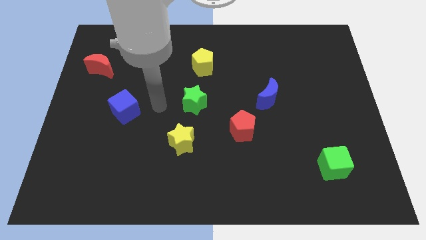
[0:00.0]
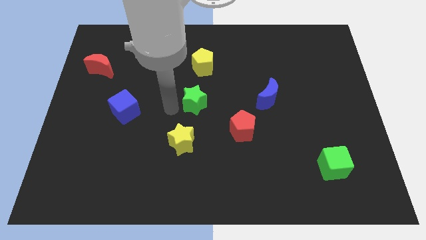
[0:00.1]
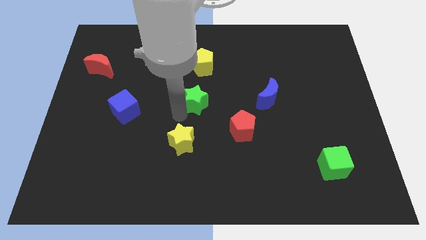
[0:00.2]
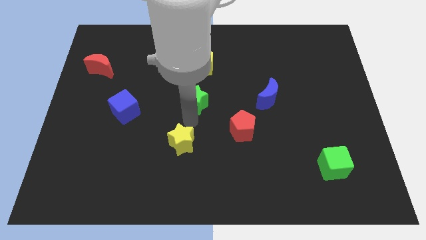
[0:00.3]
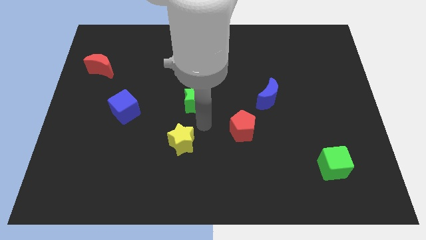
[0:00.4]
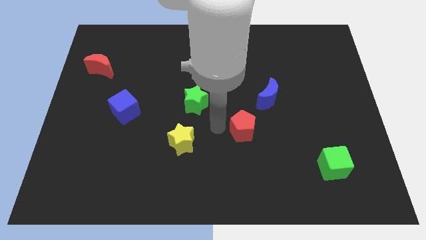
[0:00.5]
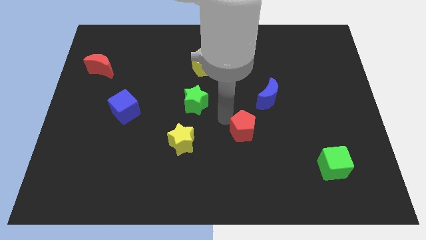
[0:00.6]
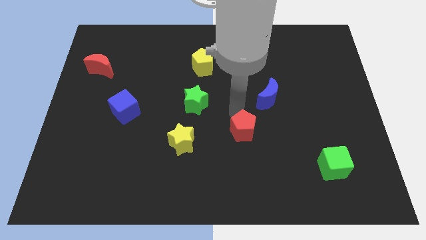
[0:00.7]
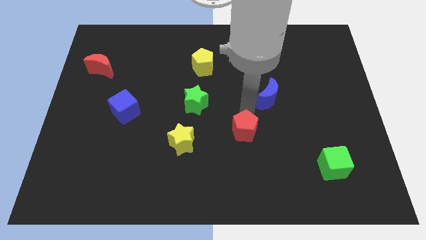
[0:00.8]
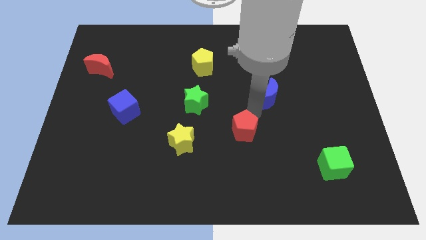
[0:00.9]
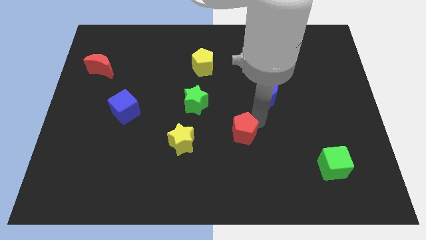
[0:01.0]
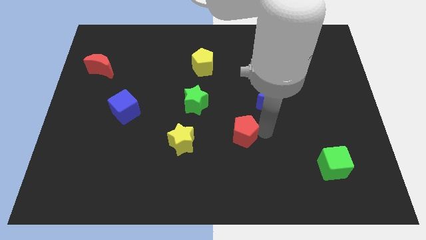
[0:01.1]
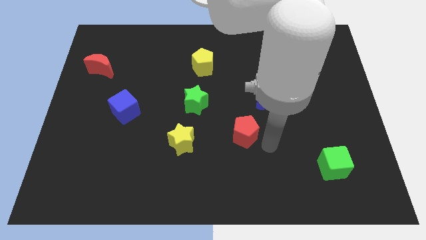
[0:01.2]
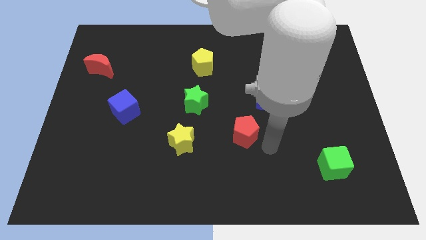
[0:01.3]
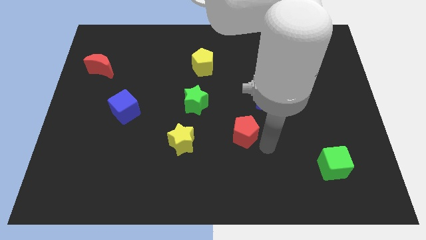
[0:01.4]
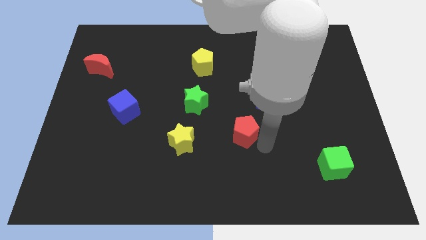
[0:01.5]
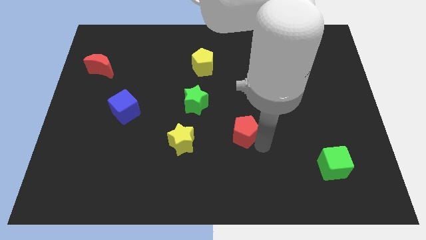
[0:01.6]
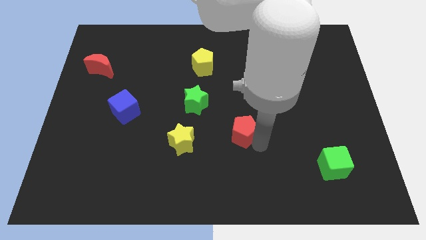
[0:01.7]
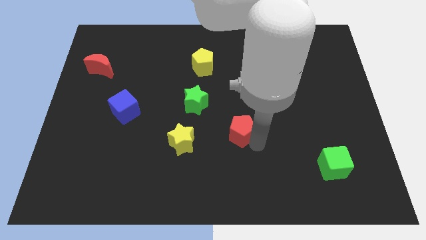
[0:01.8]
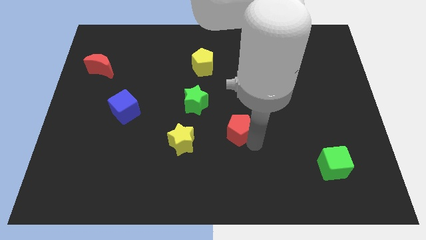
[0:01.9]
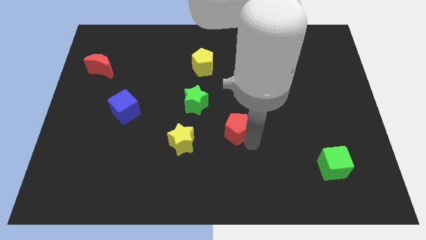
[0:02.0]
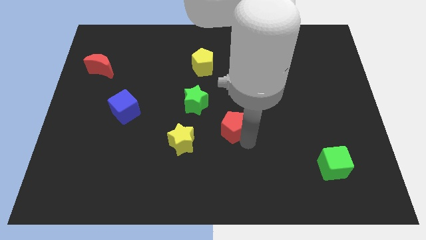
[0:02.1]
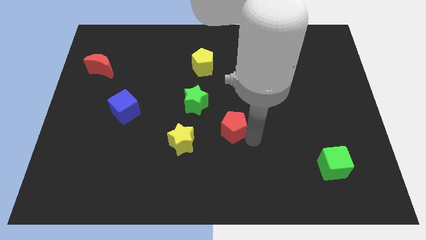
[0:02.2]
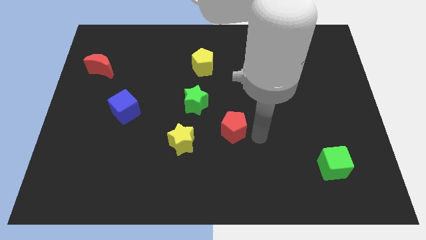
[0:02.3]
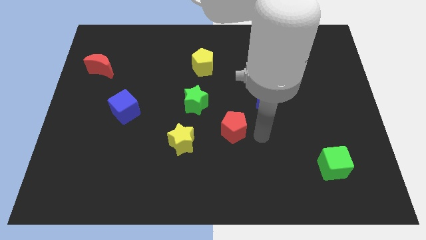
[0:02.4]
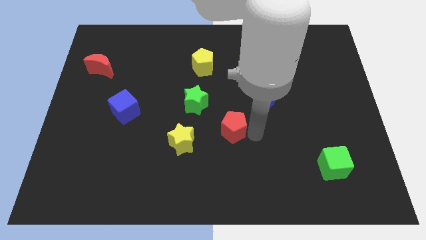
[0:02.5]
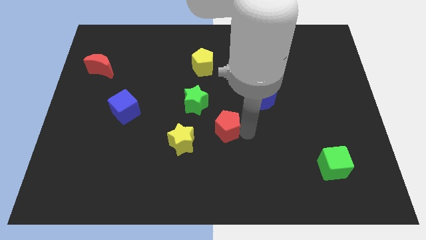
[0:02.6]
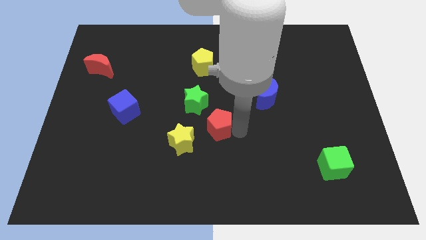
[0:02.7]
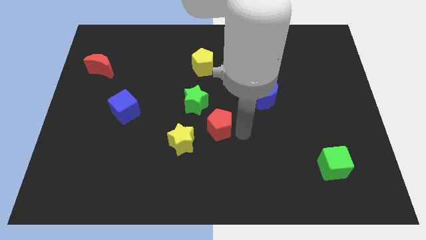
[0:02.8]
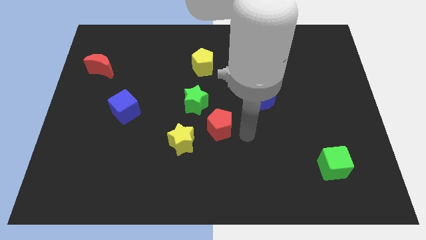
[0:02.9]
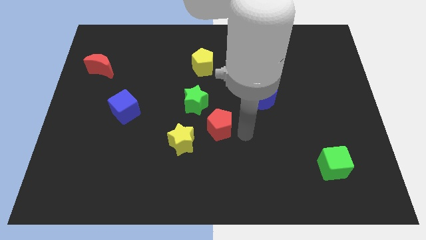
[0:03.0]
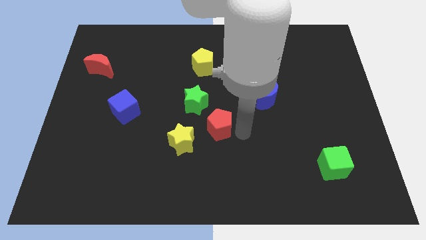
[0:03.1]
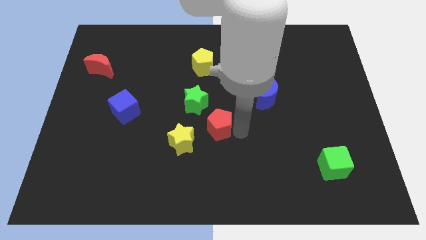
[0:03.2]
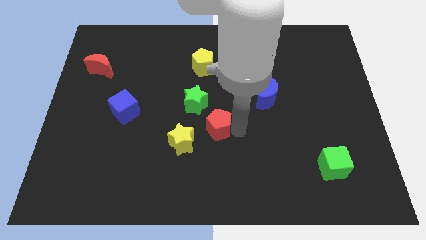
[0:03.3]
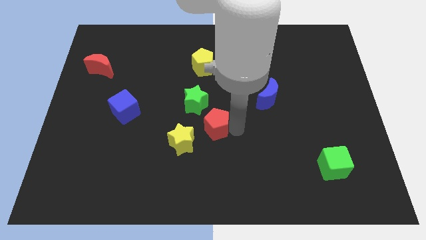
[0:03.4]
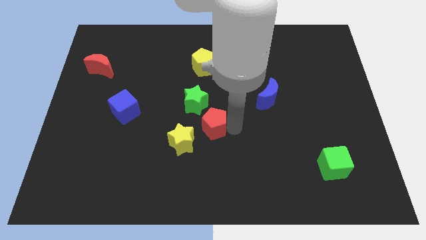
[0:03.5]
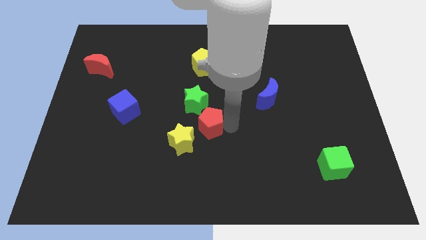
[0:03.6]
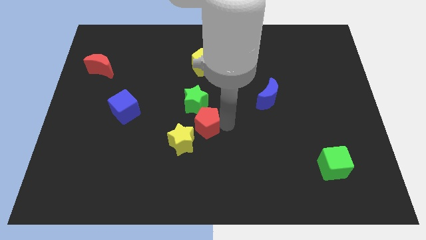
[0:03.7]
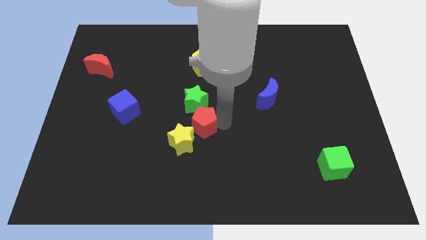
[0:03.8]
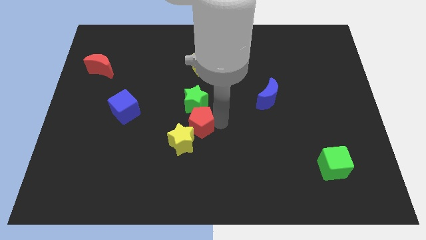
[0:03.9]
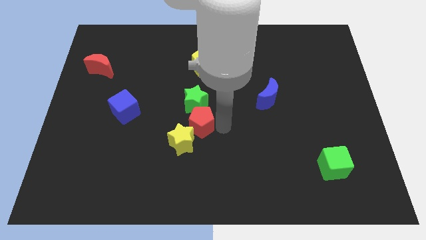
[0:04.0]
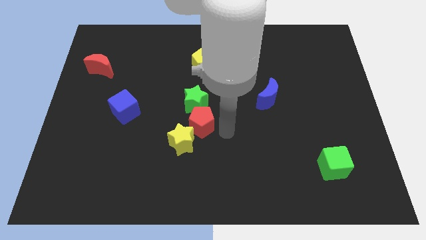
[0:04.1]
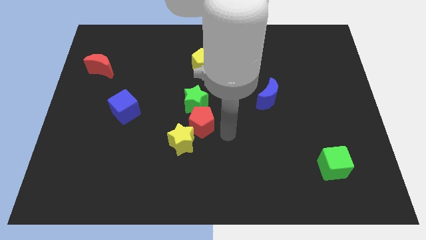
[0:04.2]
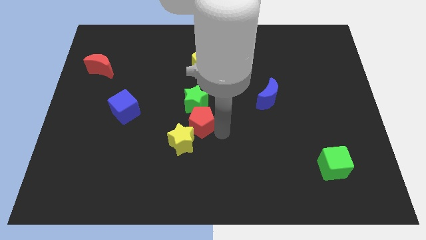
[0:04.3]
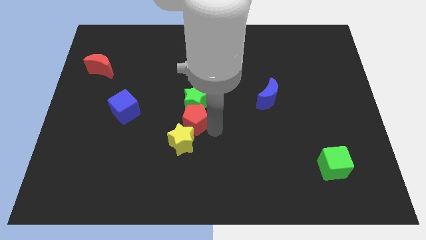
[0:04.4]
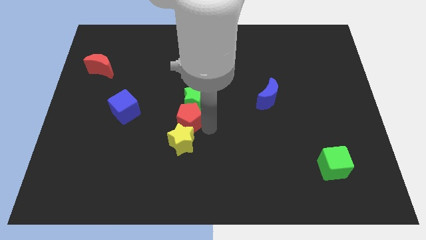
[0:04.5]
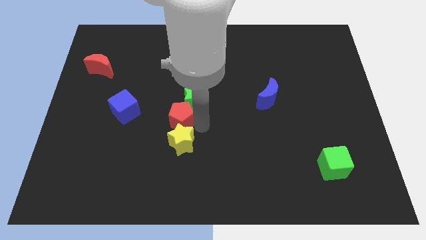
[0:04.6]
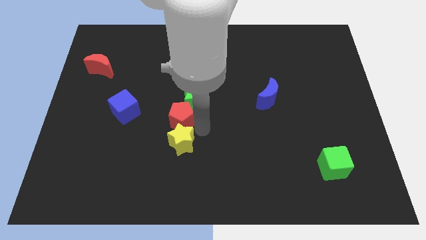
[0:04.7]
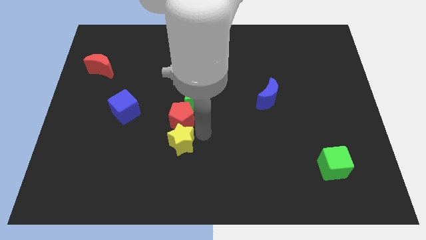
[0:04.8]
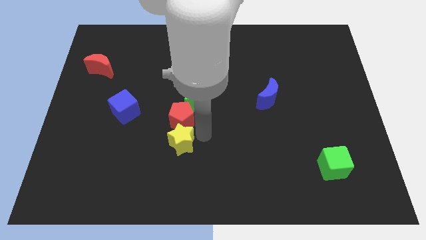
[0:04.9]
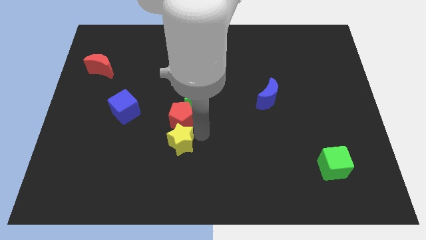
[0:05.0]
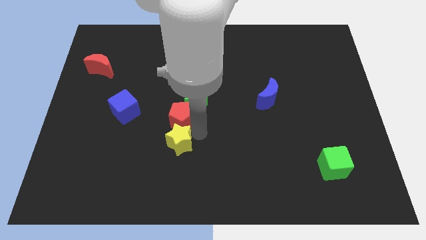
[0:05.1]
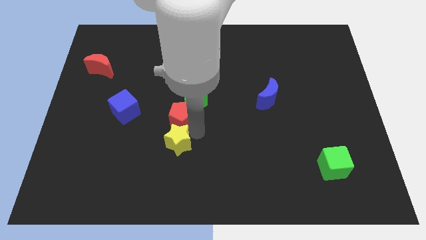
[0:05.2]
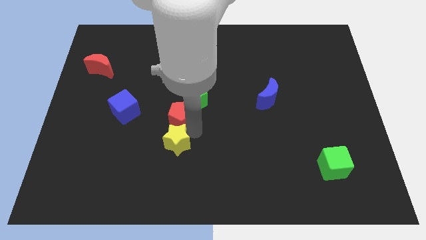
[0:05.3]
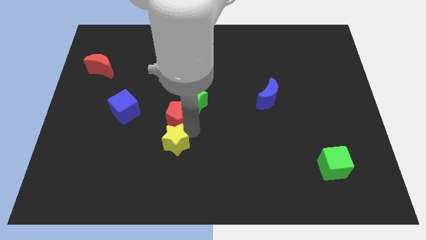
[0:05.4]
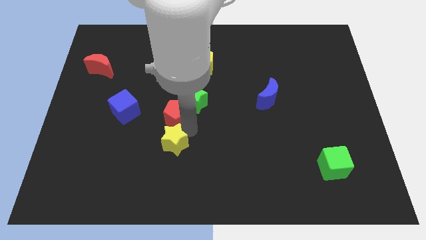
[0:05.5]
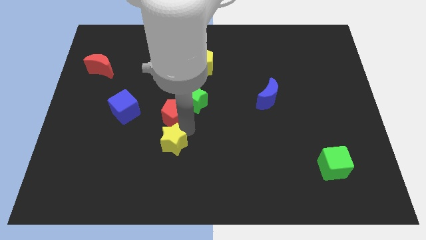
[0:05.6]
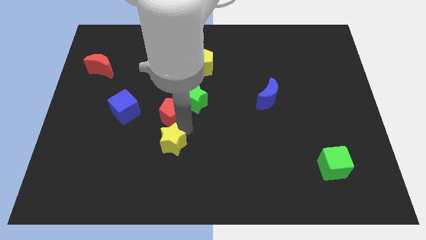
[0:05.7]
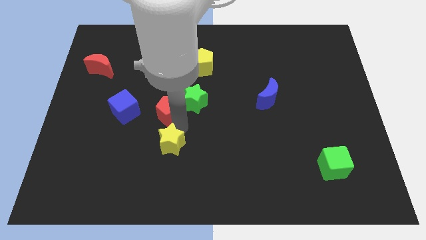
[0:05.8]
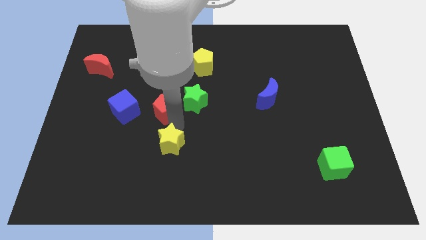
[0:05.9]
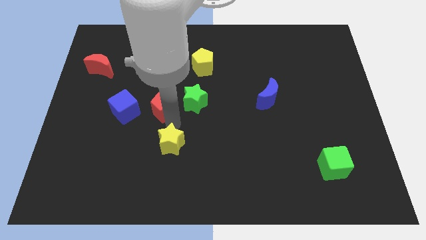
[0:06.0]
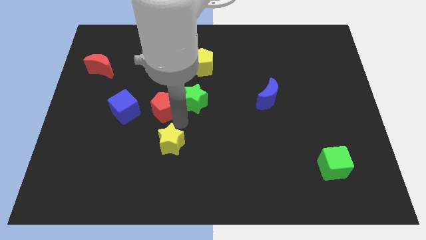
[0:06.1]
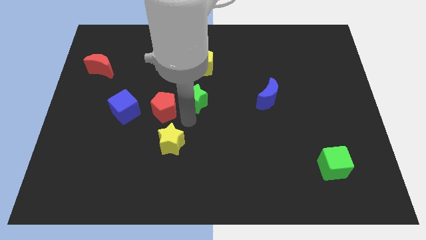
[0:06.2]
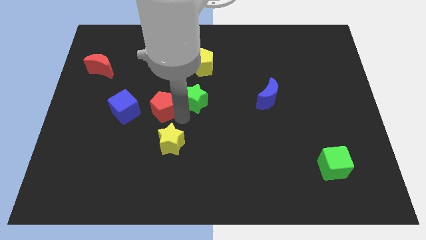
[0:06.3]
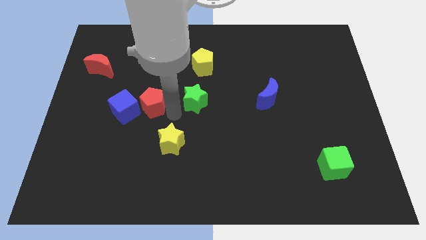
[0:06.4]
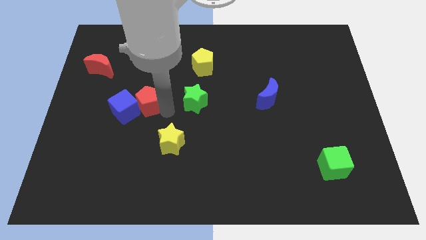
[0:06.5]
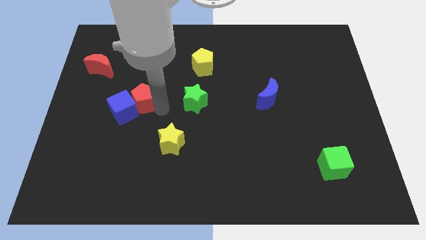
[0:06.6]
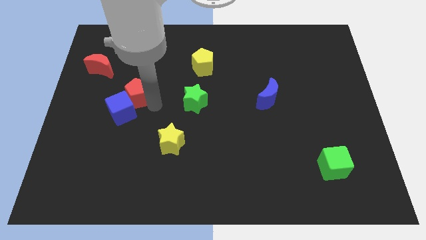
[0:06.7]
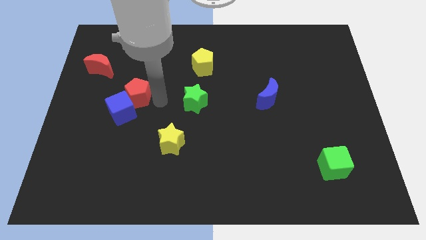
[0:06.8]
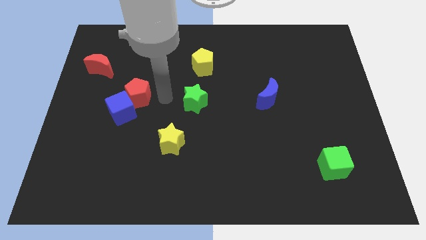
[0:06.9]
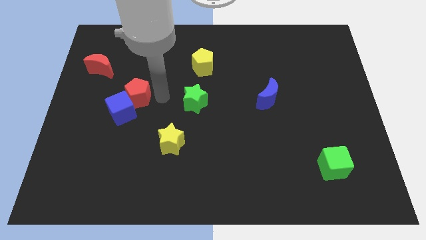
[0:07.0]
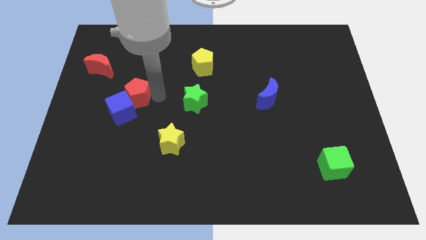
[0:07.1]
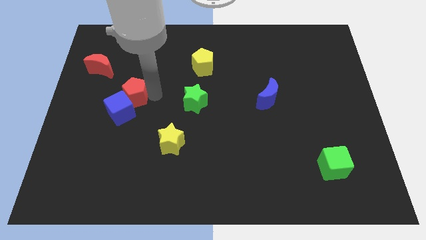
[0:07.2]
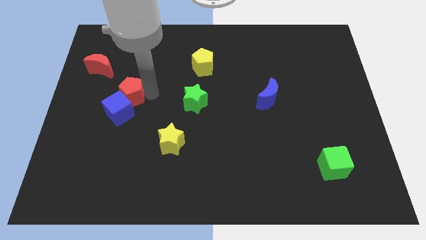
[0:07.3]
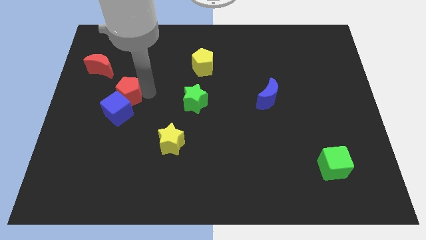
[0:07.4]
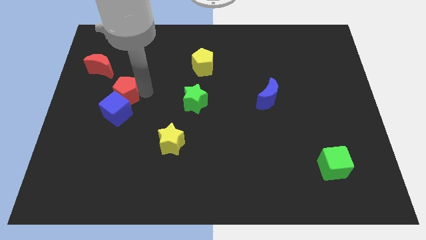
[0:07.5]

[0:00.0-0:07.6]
slide the red pentagon to the top left side of the blue cube
